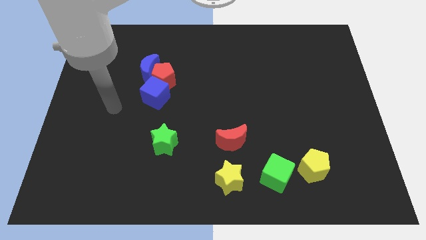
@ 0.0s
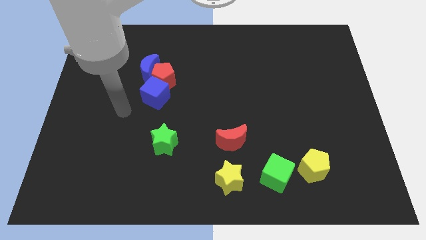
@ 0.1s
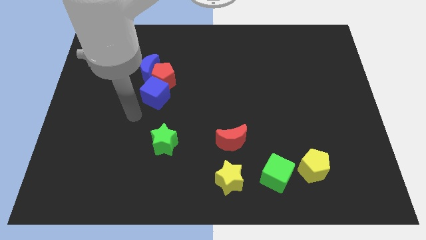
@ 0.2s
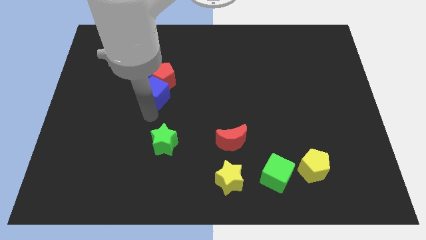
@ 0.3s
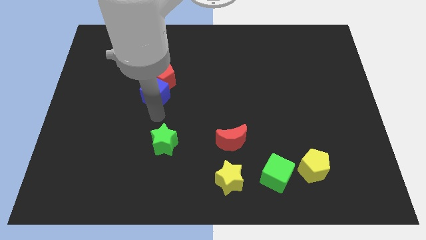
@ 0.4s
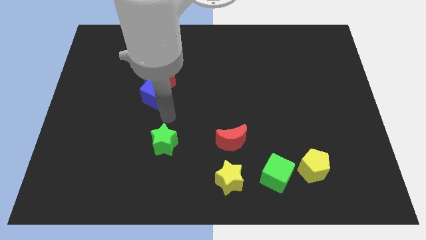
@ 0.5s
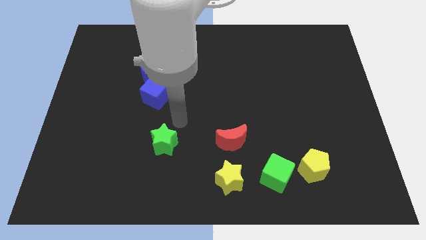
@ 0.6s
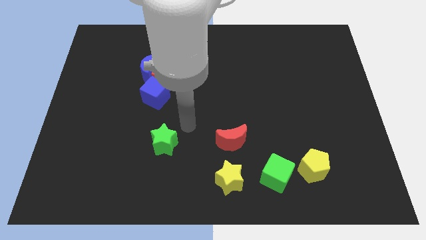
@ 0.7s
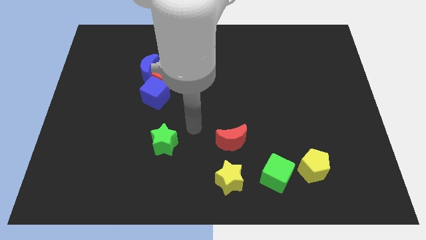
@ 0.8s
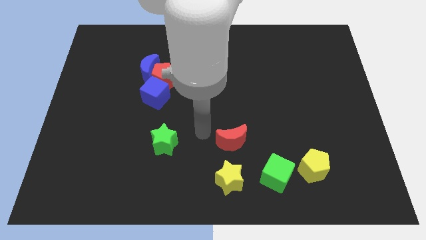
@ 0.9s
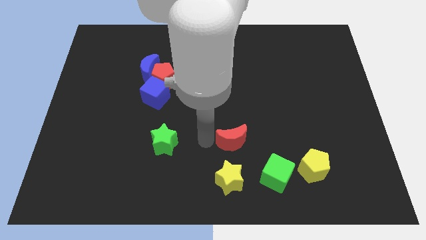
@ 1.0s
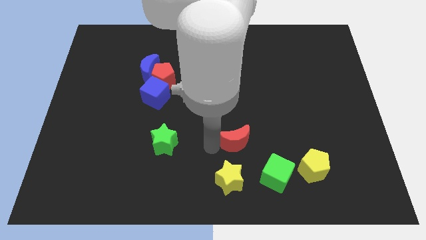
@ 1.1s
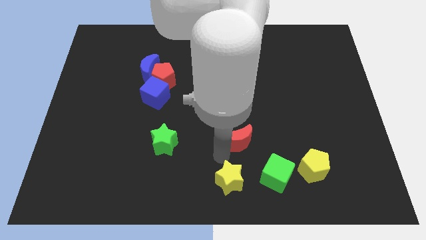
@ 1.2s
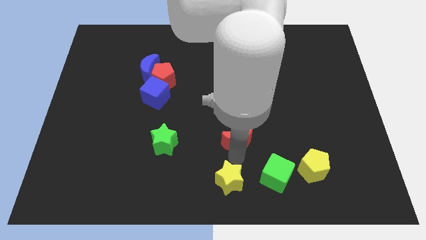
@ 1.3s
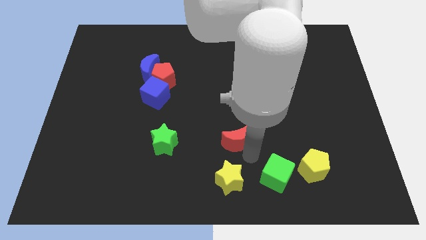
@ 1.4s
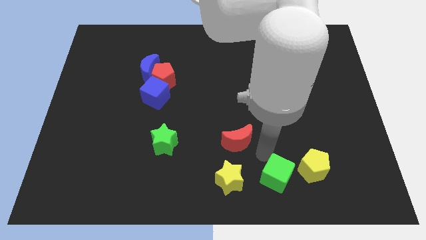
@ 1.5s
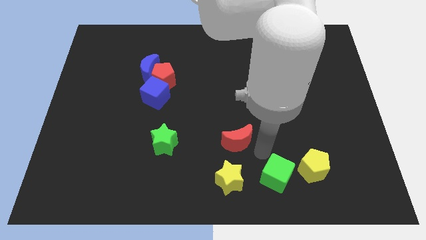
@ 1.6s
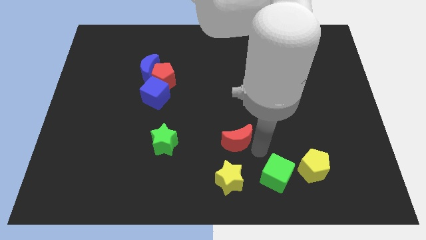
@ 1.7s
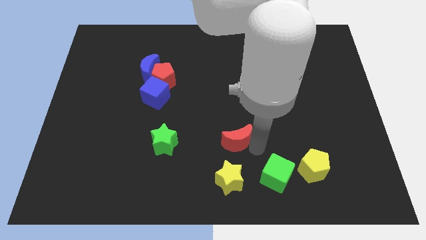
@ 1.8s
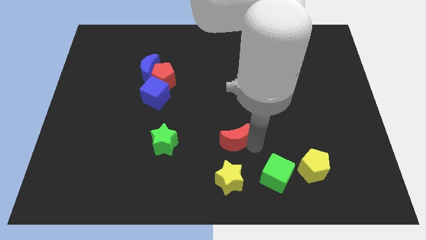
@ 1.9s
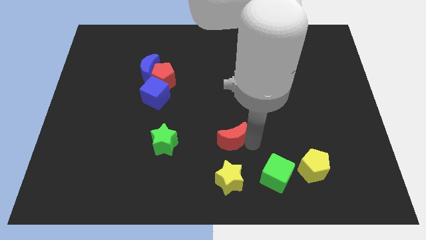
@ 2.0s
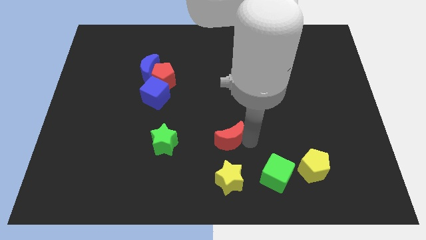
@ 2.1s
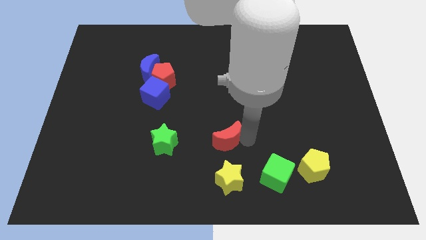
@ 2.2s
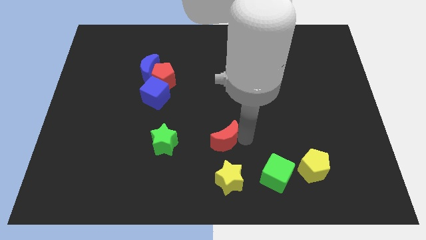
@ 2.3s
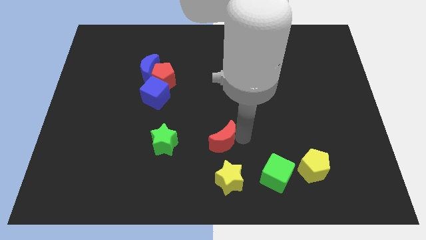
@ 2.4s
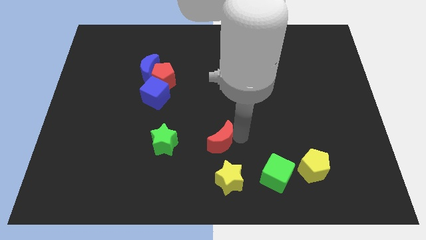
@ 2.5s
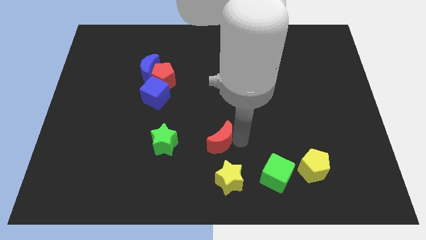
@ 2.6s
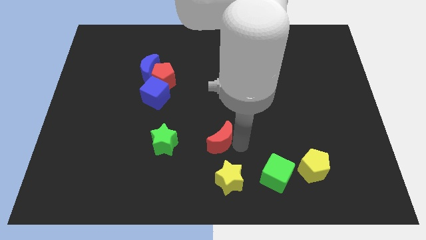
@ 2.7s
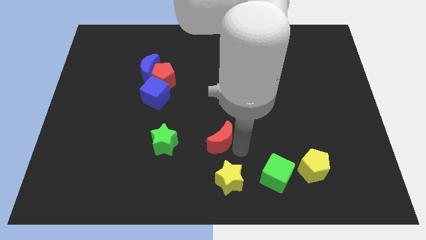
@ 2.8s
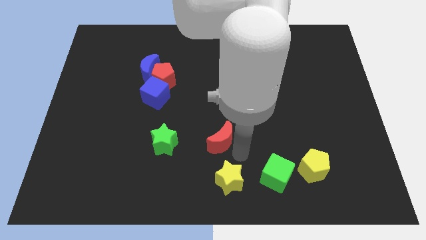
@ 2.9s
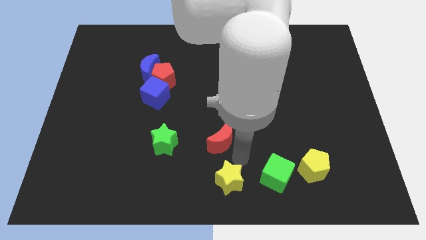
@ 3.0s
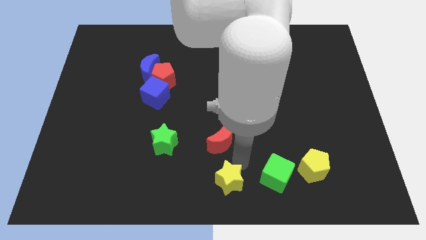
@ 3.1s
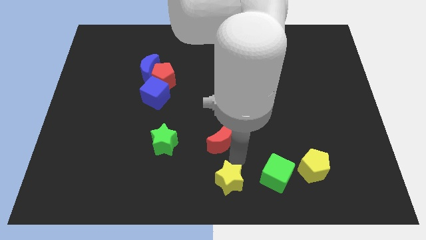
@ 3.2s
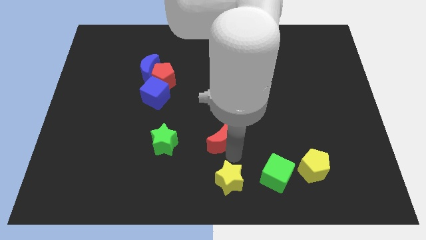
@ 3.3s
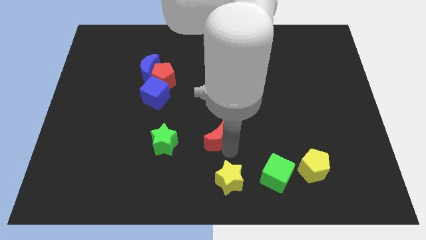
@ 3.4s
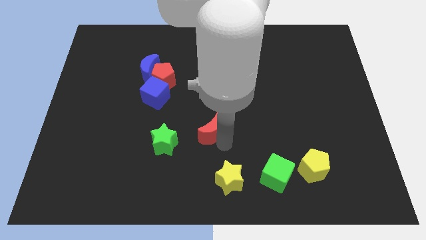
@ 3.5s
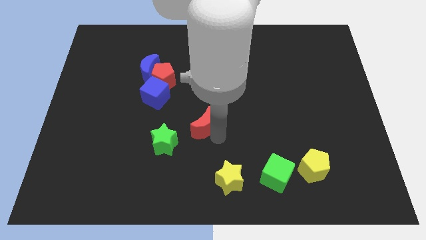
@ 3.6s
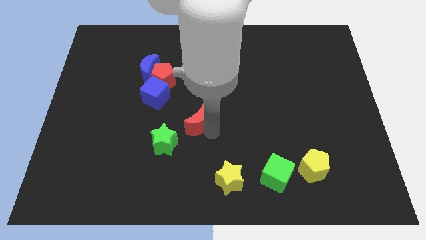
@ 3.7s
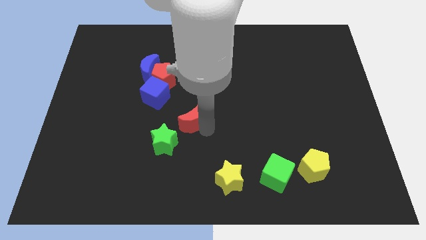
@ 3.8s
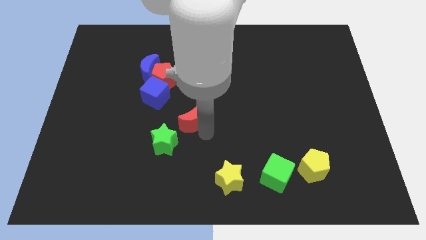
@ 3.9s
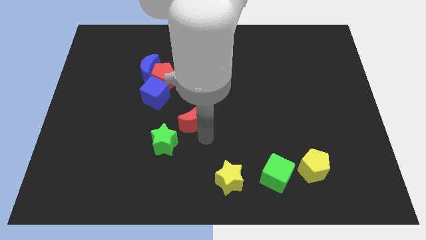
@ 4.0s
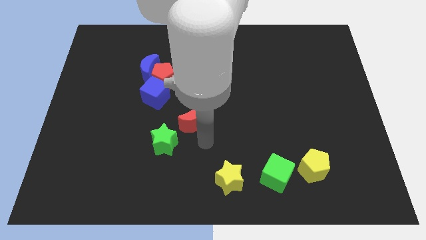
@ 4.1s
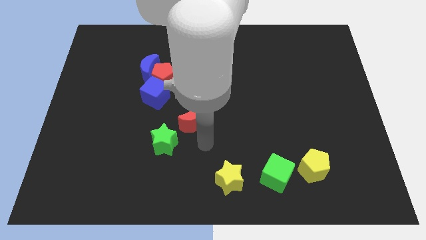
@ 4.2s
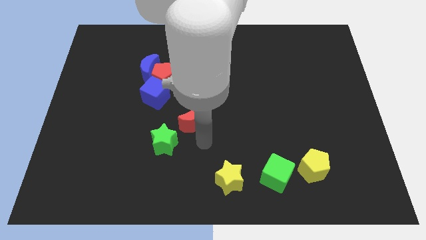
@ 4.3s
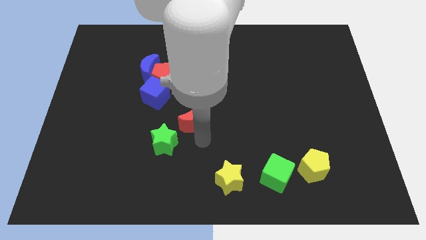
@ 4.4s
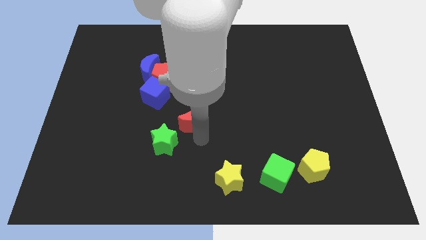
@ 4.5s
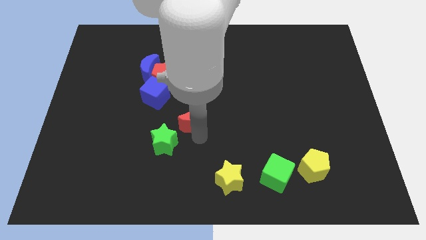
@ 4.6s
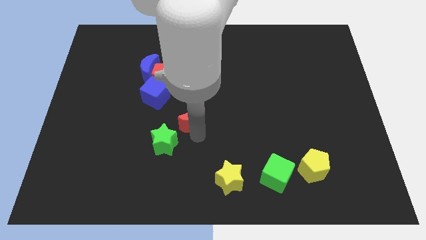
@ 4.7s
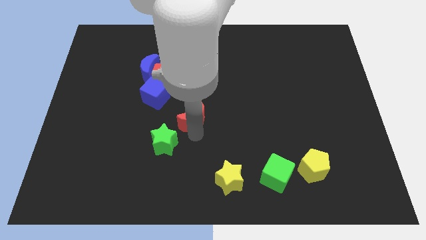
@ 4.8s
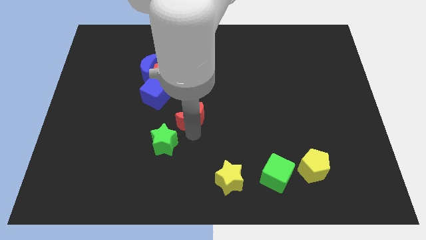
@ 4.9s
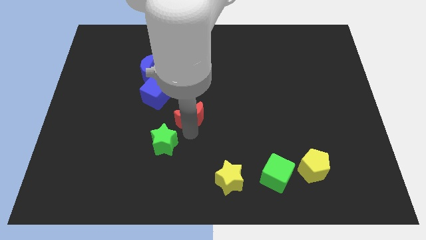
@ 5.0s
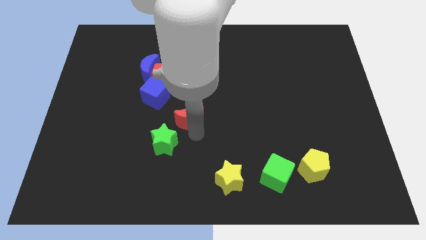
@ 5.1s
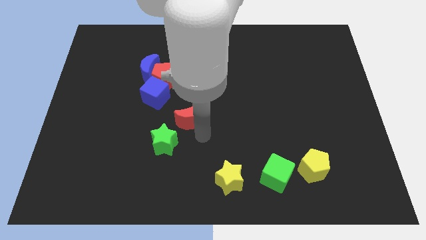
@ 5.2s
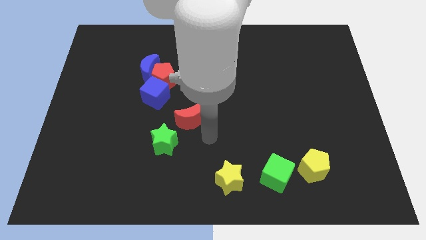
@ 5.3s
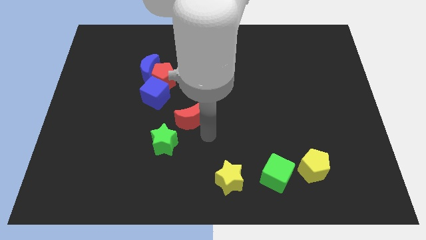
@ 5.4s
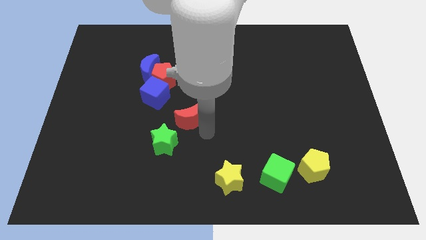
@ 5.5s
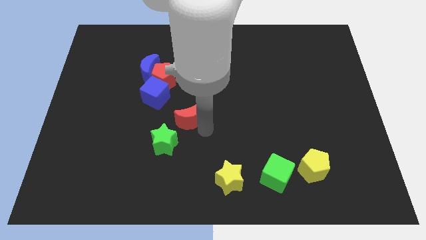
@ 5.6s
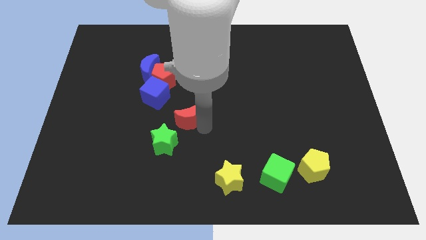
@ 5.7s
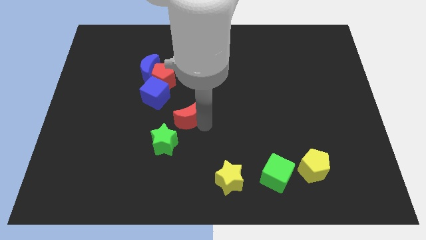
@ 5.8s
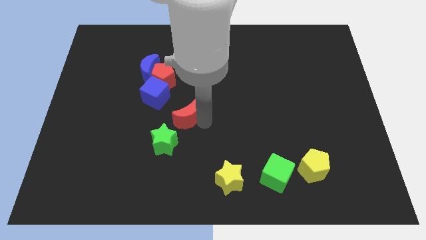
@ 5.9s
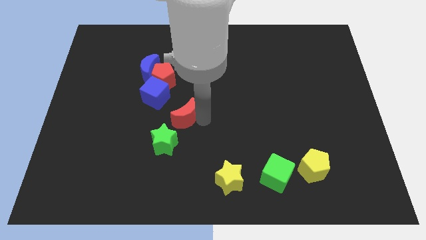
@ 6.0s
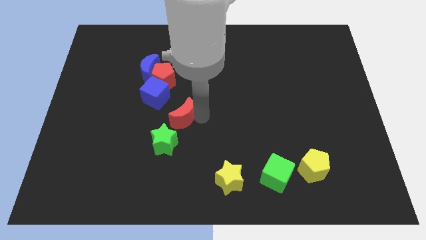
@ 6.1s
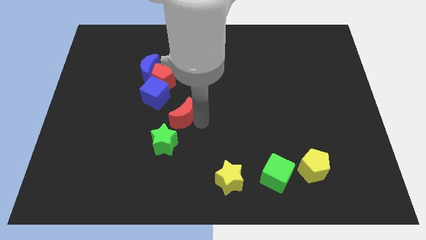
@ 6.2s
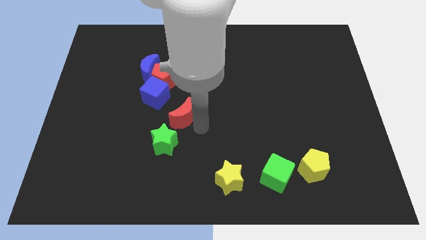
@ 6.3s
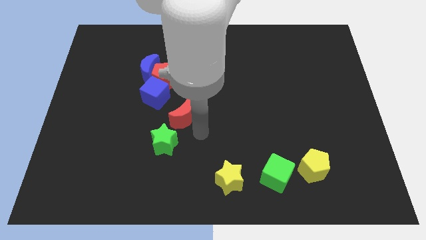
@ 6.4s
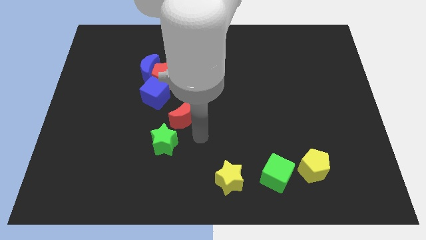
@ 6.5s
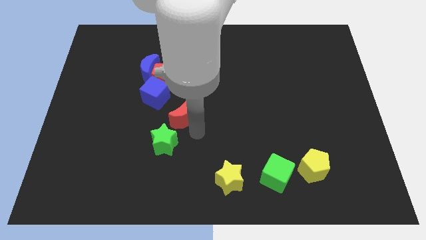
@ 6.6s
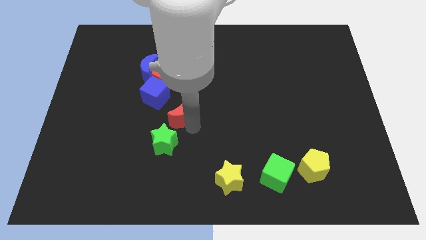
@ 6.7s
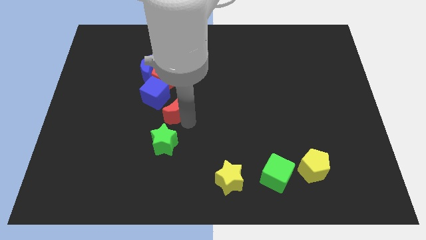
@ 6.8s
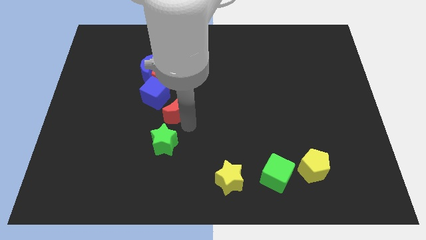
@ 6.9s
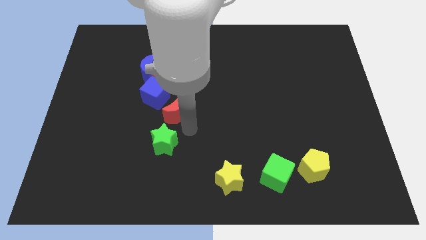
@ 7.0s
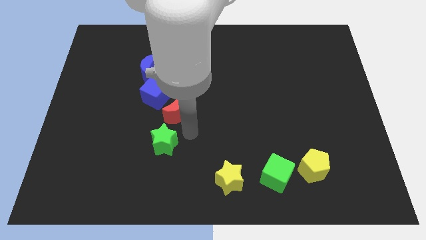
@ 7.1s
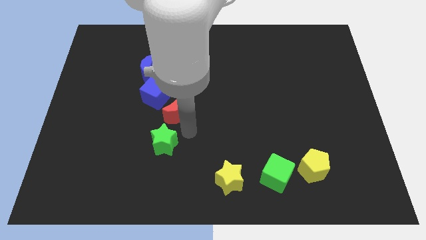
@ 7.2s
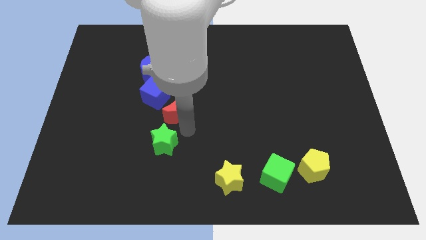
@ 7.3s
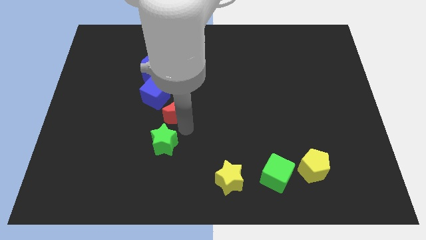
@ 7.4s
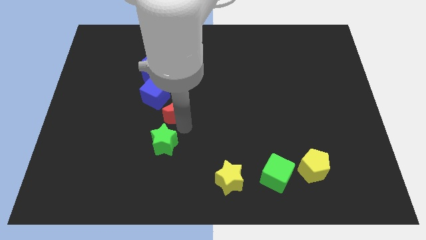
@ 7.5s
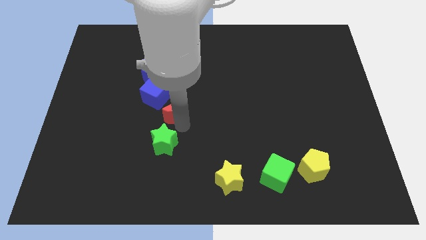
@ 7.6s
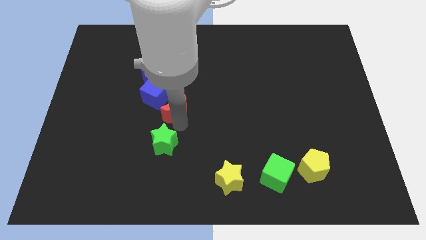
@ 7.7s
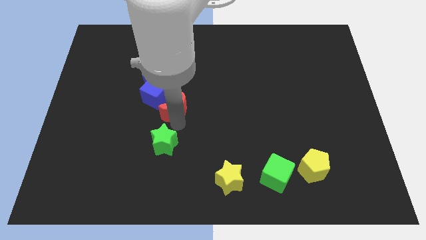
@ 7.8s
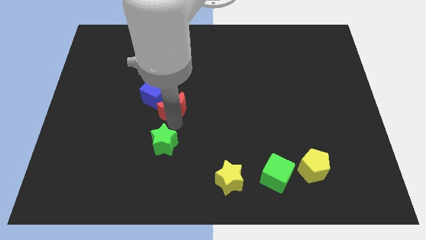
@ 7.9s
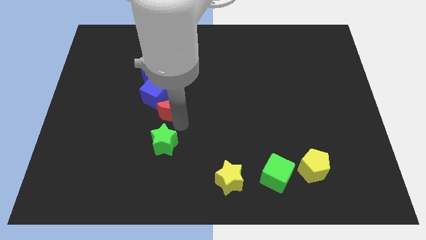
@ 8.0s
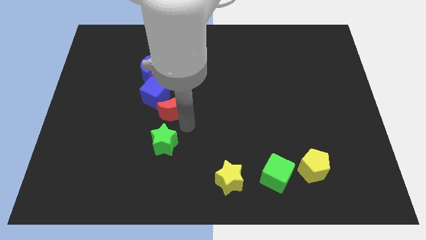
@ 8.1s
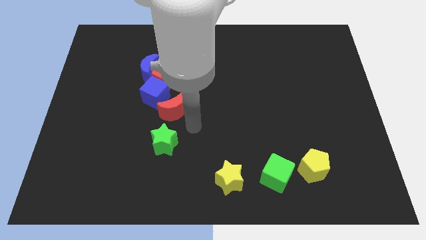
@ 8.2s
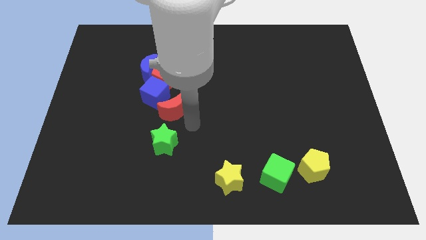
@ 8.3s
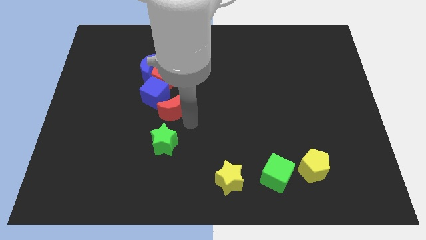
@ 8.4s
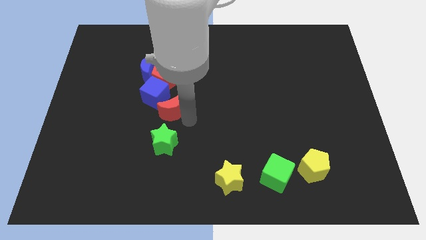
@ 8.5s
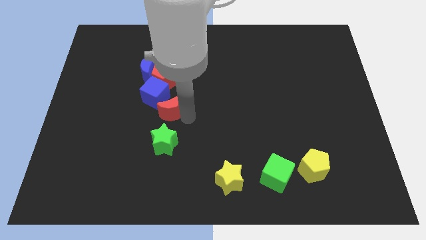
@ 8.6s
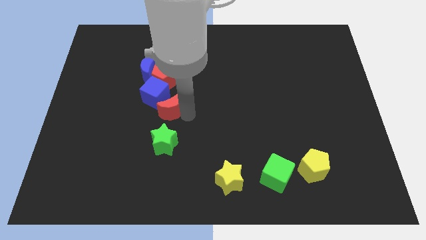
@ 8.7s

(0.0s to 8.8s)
move the red moon next to the blue cube
